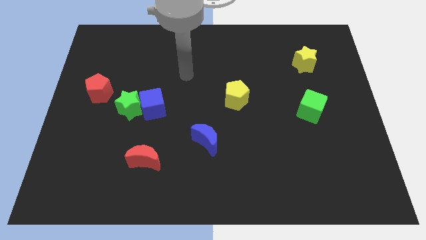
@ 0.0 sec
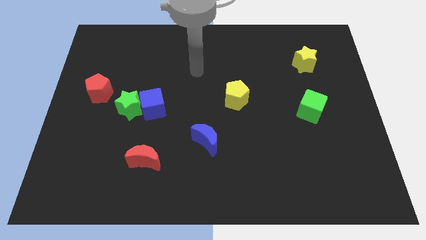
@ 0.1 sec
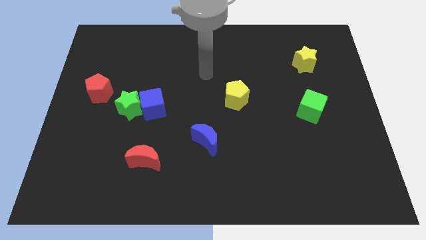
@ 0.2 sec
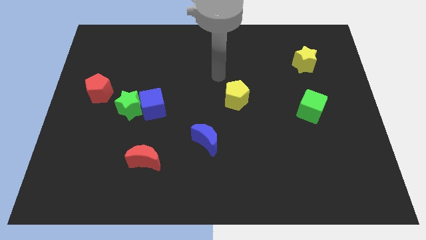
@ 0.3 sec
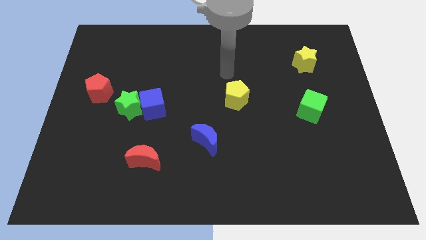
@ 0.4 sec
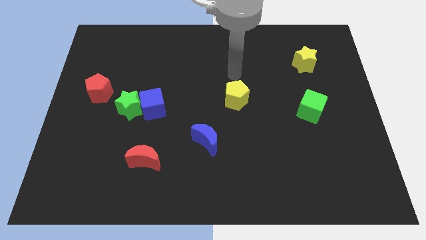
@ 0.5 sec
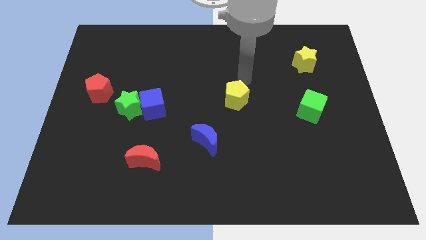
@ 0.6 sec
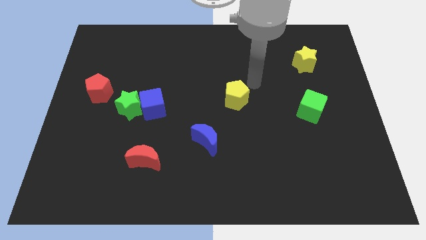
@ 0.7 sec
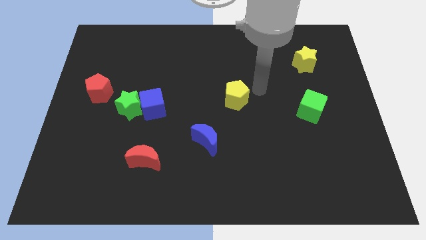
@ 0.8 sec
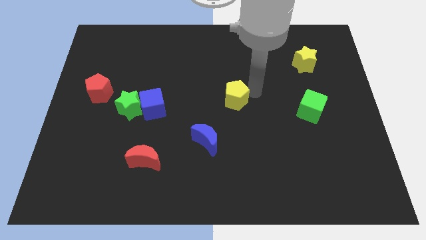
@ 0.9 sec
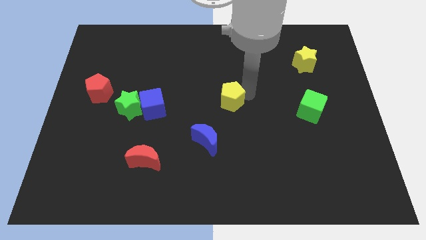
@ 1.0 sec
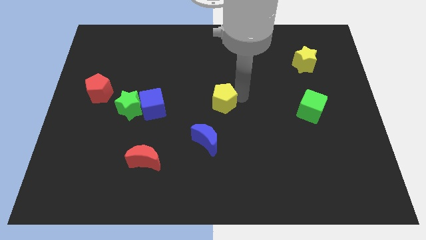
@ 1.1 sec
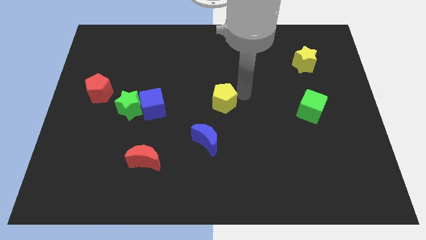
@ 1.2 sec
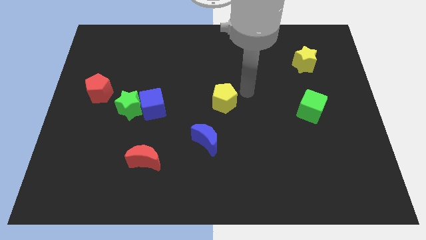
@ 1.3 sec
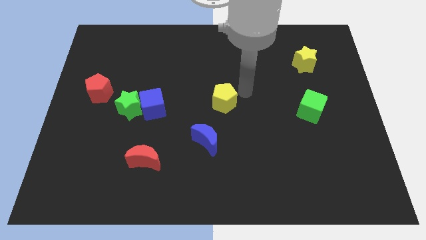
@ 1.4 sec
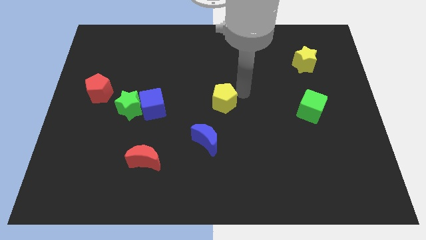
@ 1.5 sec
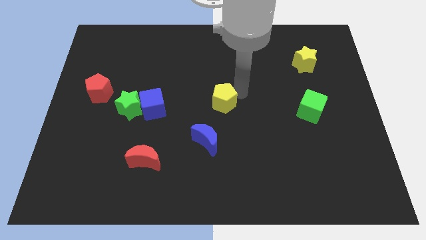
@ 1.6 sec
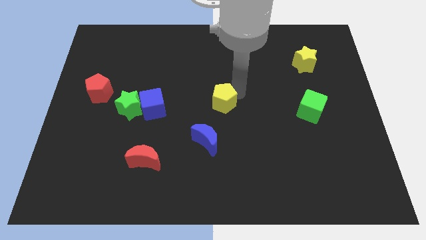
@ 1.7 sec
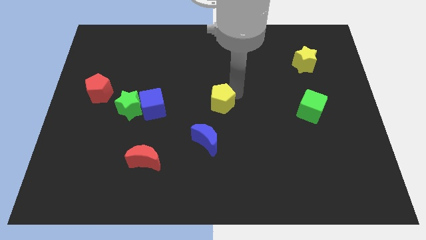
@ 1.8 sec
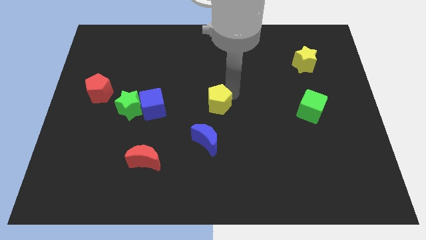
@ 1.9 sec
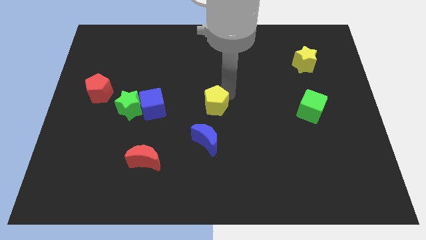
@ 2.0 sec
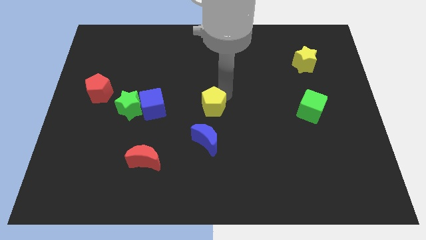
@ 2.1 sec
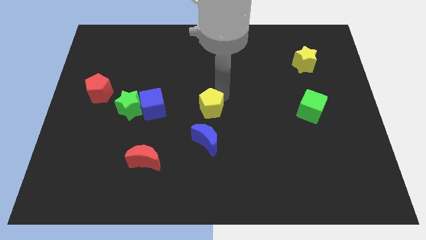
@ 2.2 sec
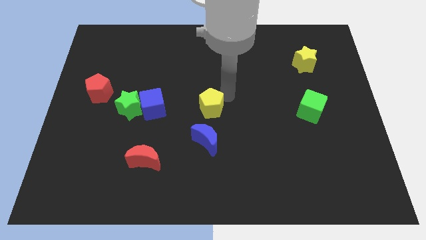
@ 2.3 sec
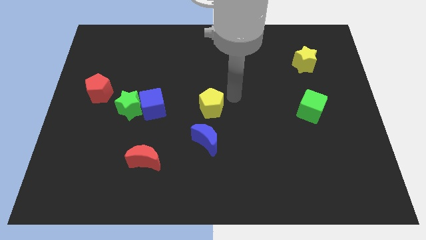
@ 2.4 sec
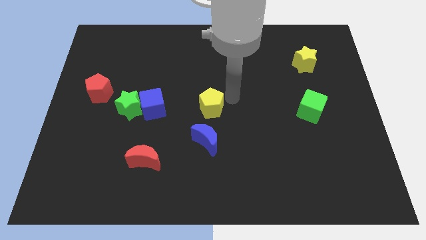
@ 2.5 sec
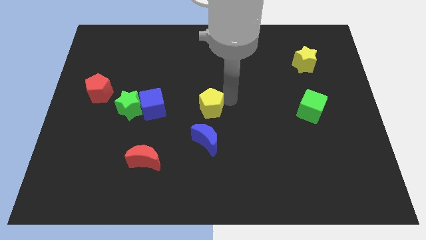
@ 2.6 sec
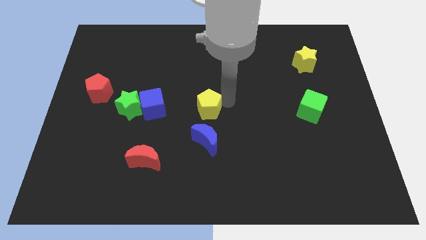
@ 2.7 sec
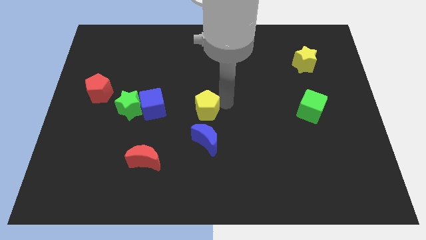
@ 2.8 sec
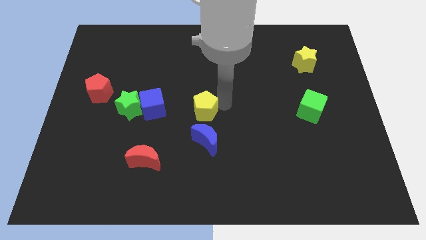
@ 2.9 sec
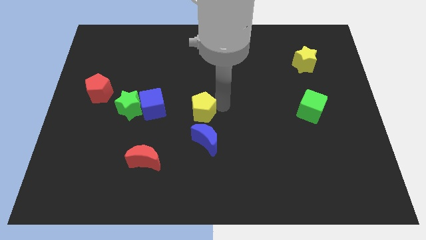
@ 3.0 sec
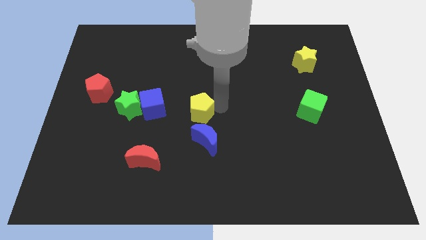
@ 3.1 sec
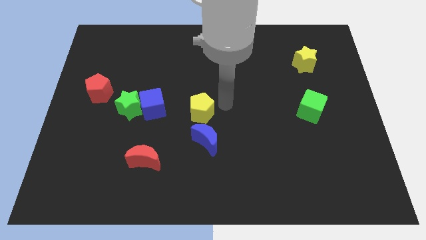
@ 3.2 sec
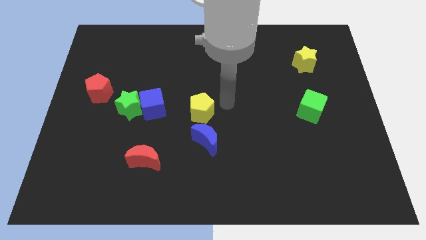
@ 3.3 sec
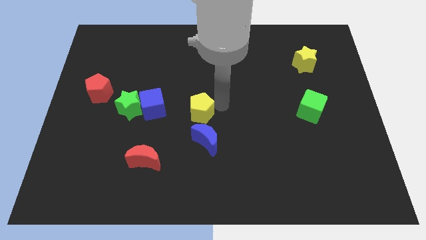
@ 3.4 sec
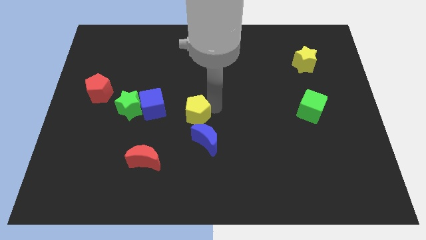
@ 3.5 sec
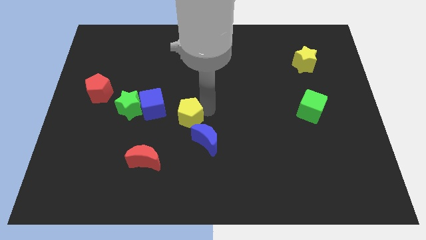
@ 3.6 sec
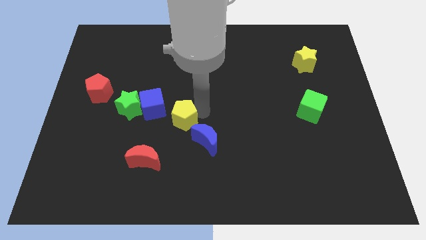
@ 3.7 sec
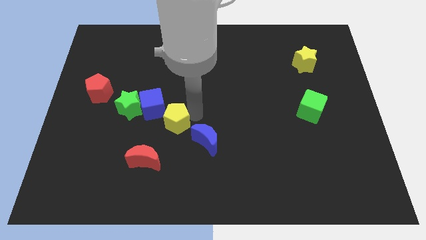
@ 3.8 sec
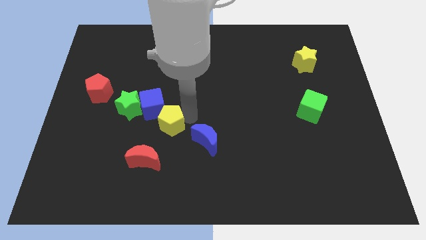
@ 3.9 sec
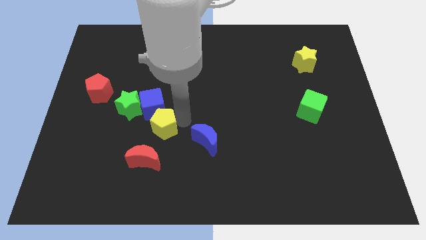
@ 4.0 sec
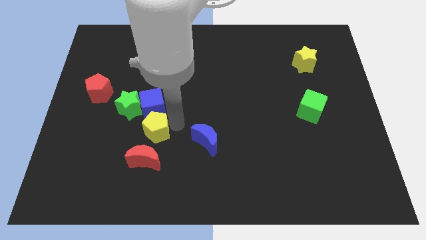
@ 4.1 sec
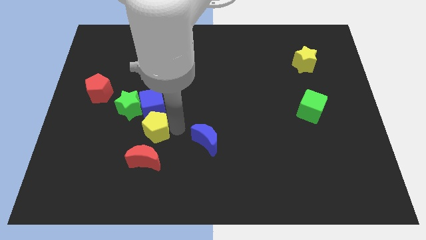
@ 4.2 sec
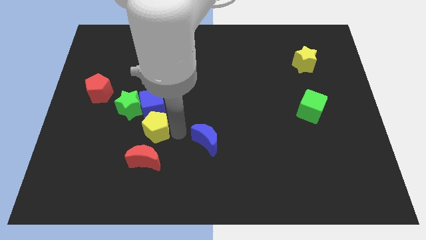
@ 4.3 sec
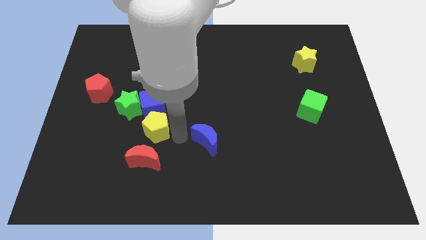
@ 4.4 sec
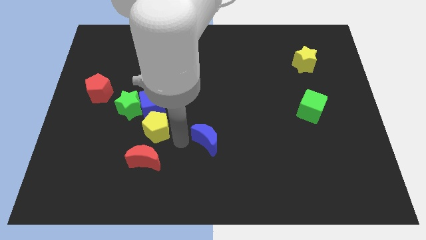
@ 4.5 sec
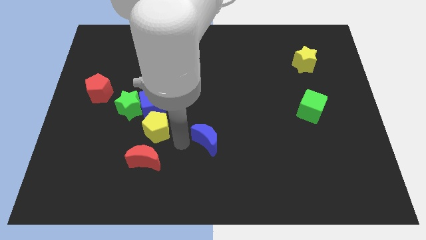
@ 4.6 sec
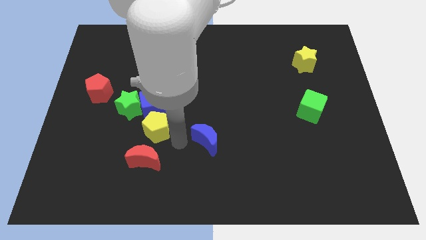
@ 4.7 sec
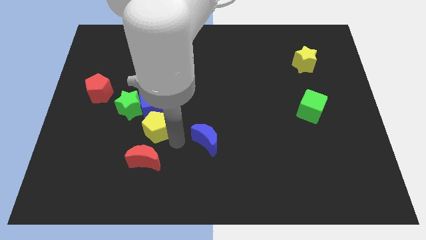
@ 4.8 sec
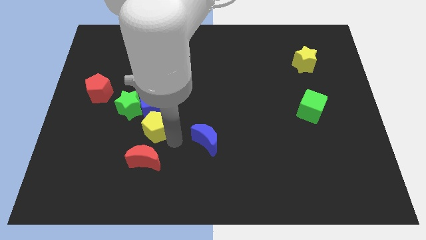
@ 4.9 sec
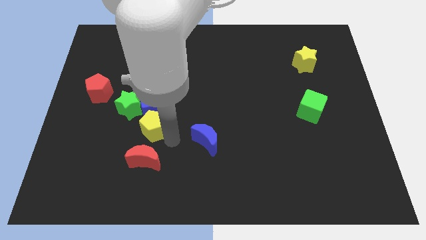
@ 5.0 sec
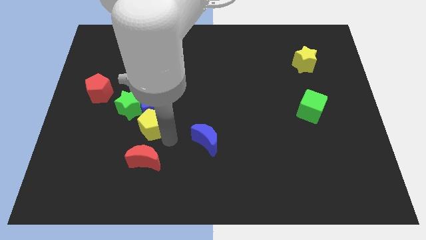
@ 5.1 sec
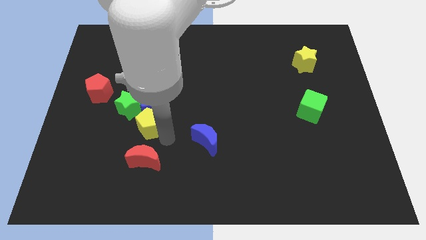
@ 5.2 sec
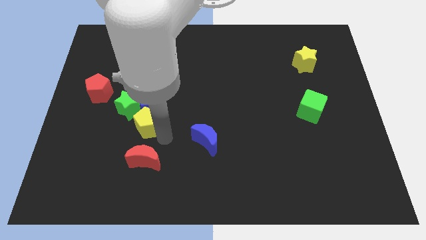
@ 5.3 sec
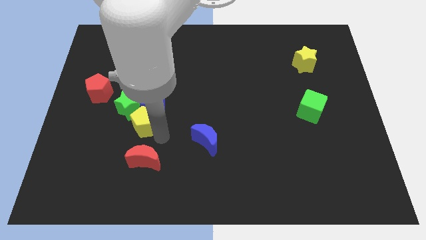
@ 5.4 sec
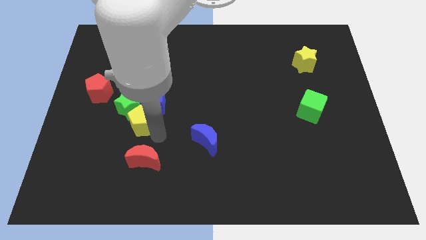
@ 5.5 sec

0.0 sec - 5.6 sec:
slide the yellow pentagon next to the green star

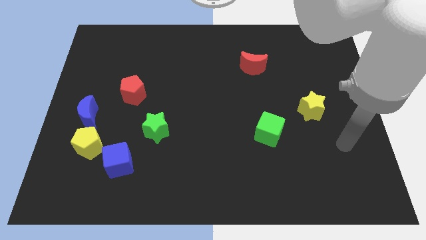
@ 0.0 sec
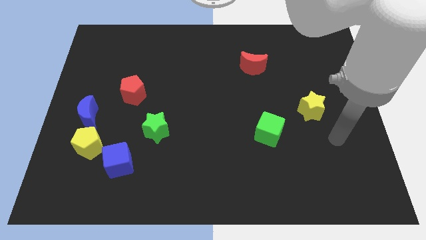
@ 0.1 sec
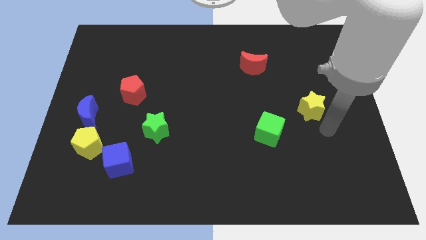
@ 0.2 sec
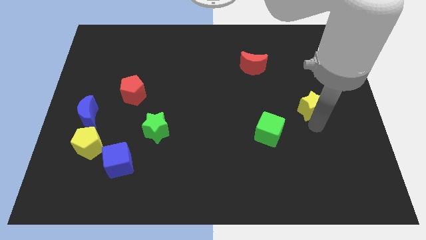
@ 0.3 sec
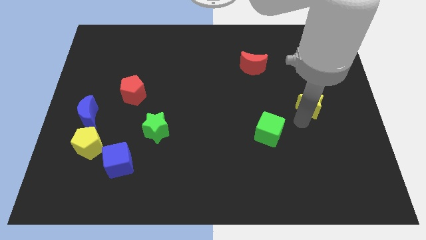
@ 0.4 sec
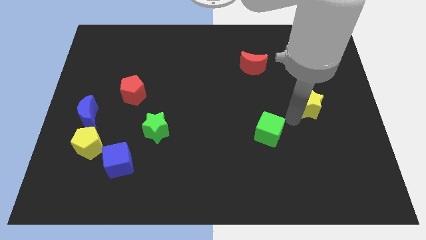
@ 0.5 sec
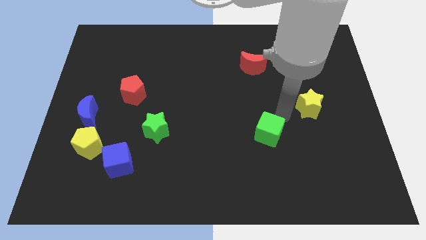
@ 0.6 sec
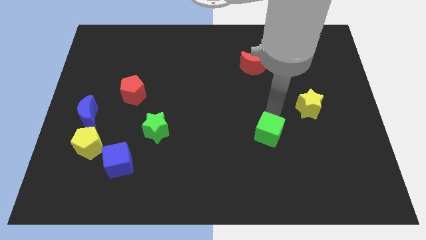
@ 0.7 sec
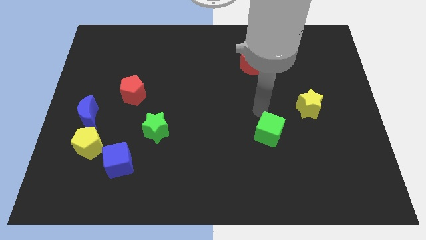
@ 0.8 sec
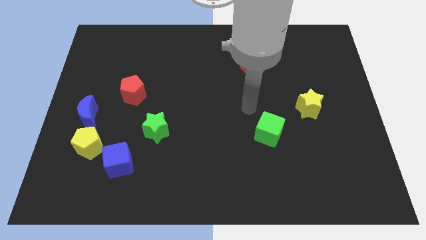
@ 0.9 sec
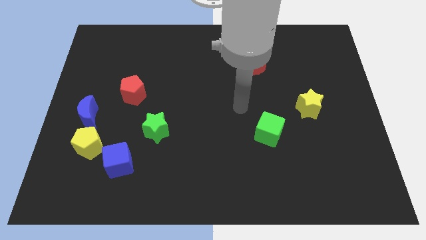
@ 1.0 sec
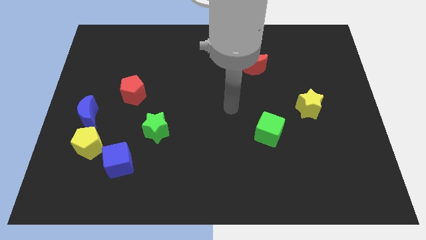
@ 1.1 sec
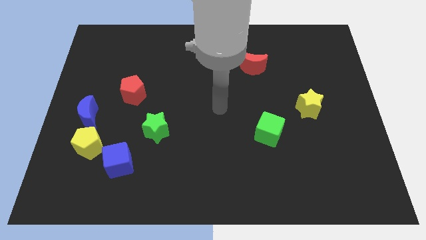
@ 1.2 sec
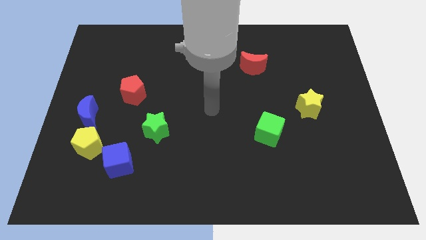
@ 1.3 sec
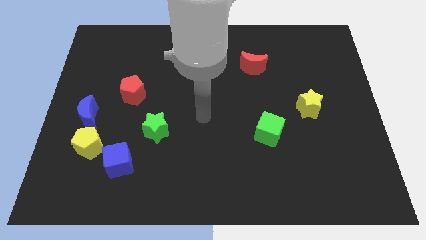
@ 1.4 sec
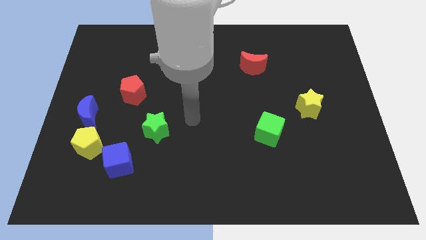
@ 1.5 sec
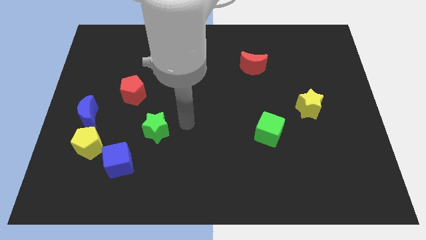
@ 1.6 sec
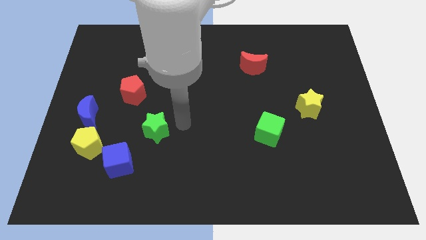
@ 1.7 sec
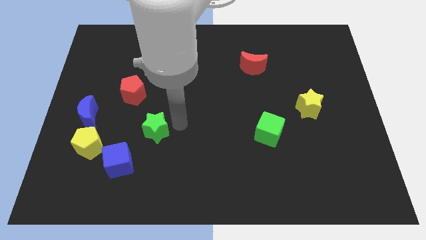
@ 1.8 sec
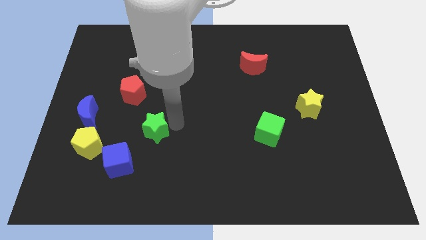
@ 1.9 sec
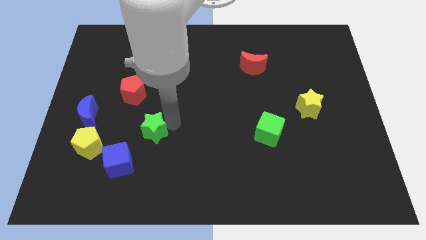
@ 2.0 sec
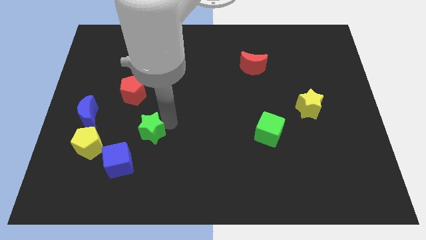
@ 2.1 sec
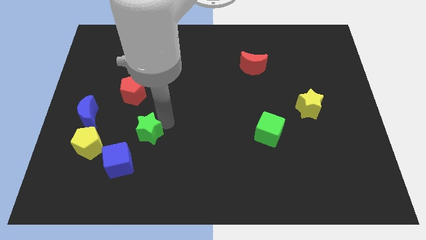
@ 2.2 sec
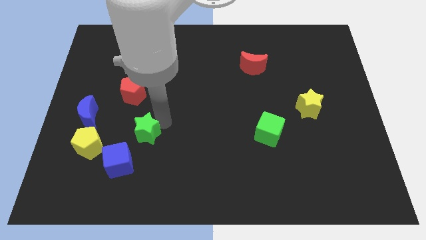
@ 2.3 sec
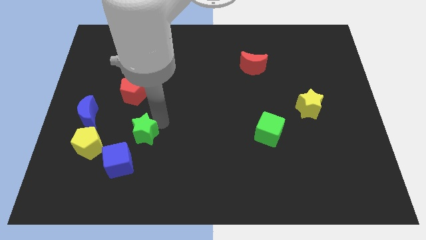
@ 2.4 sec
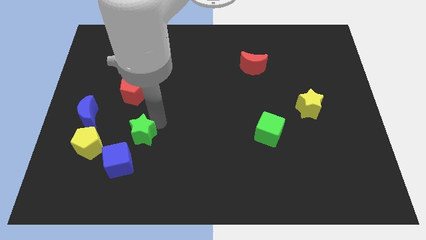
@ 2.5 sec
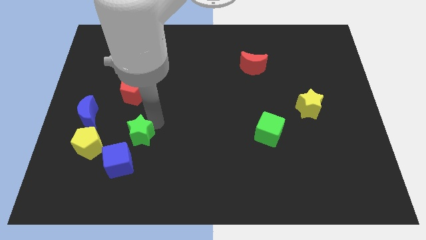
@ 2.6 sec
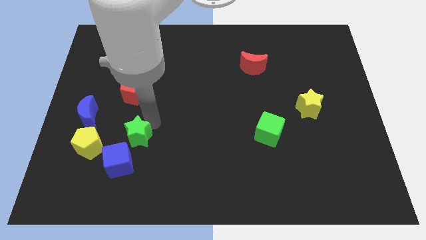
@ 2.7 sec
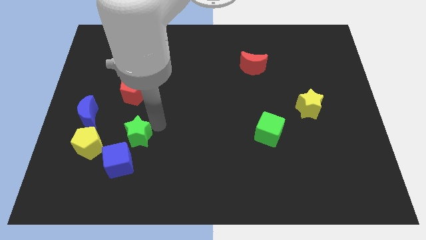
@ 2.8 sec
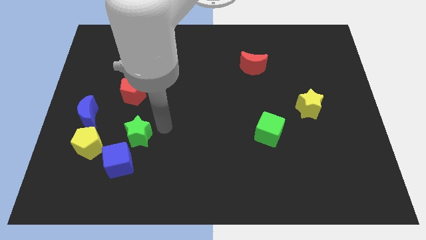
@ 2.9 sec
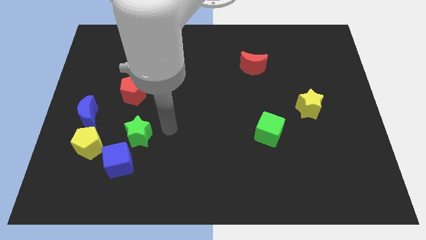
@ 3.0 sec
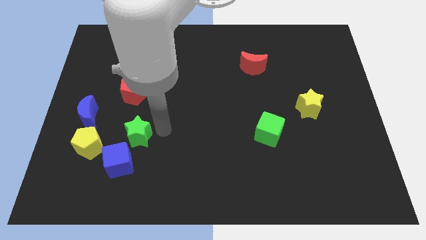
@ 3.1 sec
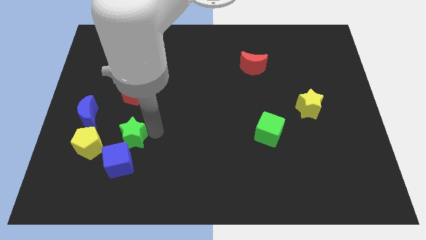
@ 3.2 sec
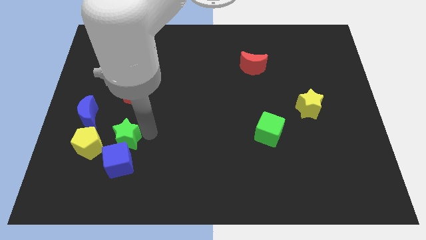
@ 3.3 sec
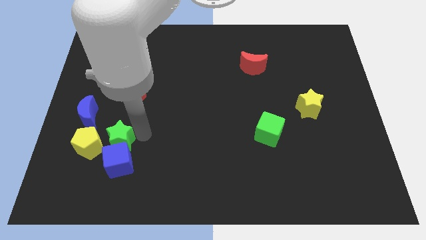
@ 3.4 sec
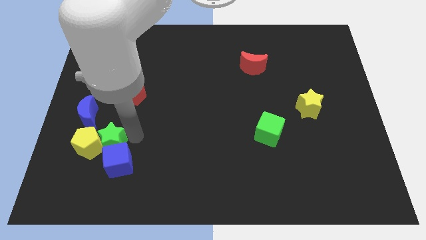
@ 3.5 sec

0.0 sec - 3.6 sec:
push the green star to the yellow pentagon
